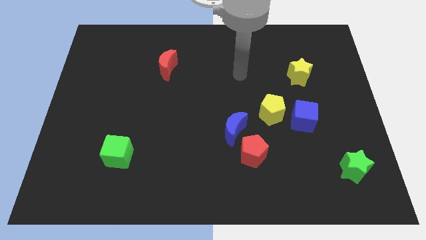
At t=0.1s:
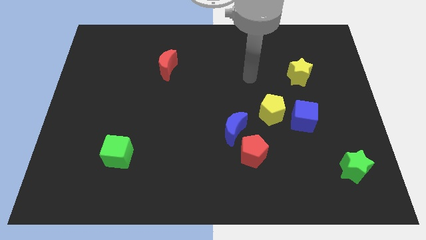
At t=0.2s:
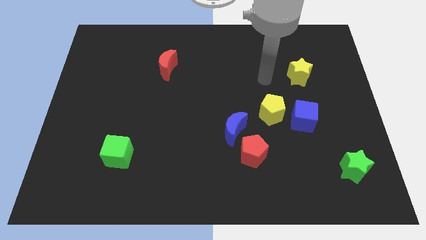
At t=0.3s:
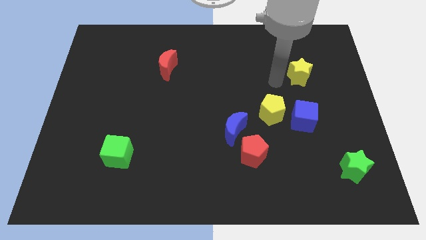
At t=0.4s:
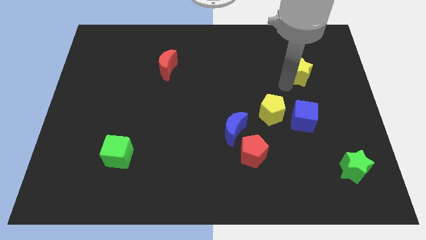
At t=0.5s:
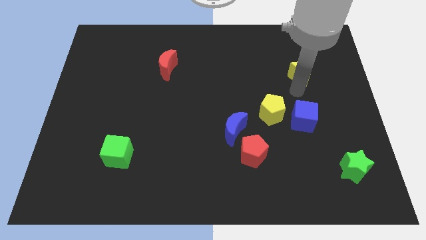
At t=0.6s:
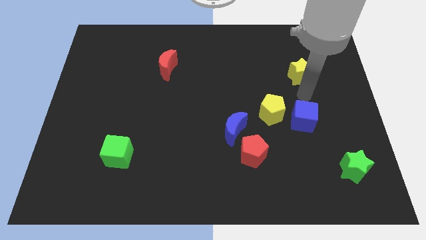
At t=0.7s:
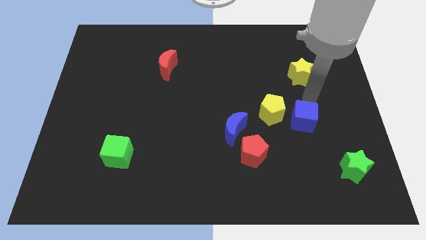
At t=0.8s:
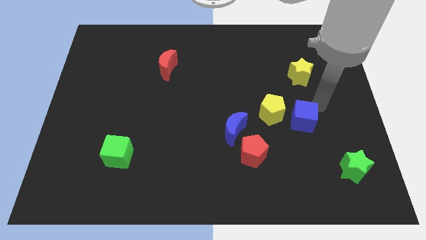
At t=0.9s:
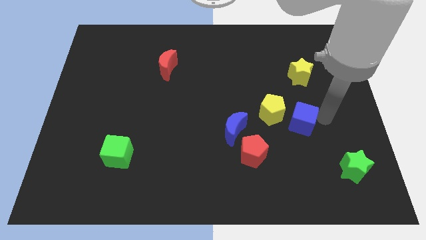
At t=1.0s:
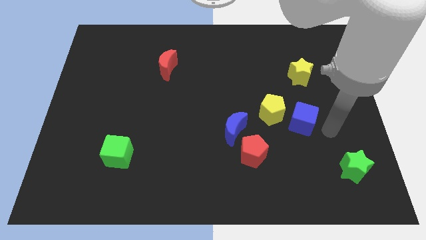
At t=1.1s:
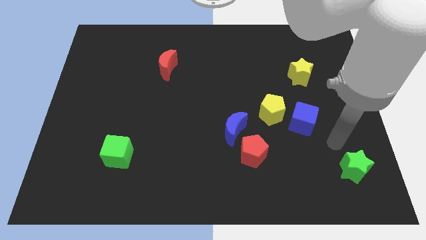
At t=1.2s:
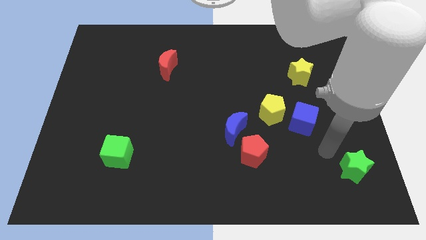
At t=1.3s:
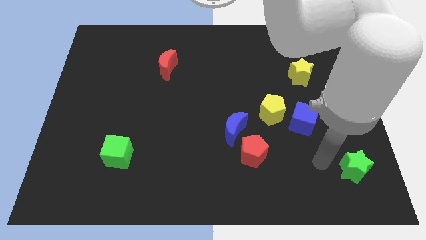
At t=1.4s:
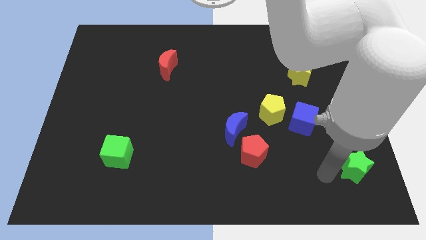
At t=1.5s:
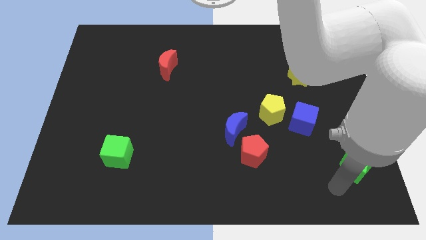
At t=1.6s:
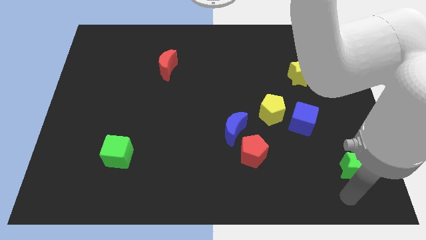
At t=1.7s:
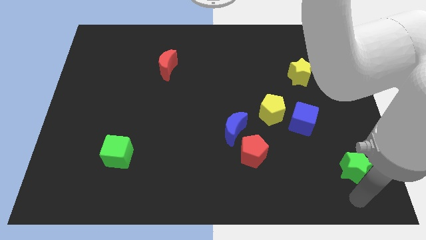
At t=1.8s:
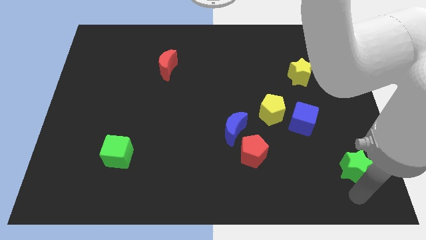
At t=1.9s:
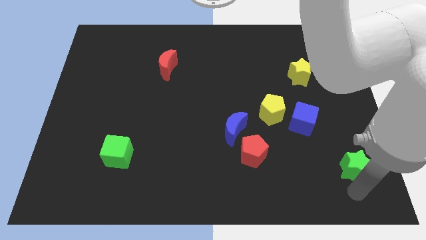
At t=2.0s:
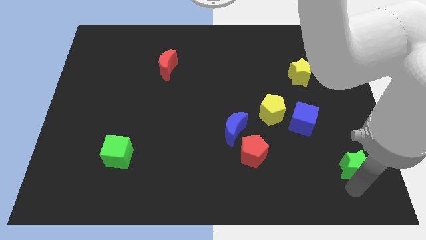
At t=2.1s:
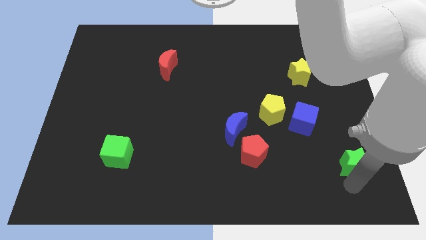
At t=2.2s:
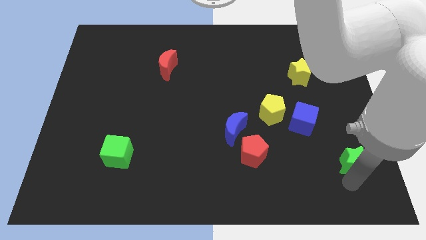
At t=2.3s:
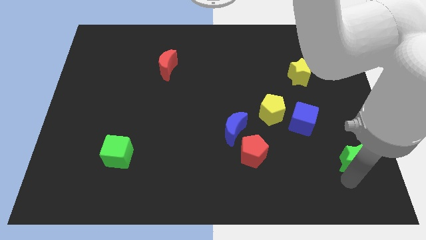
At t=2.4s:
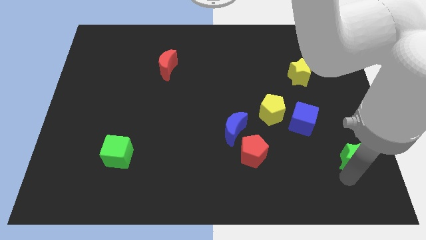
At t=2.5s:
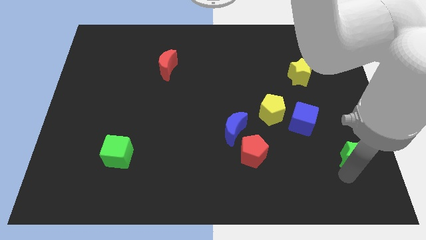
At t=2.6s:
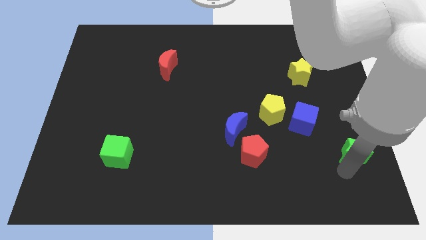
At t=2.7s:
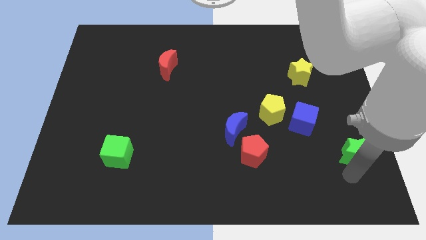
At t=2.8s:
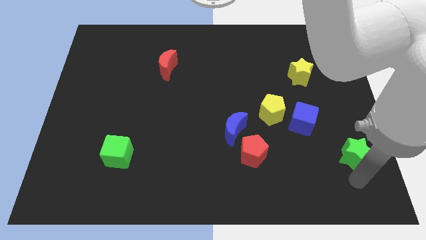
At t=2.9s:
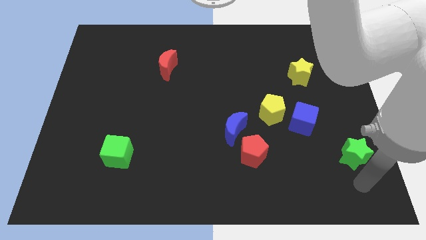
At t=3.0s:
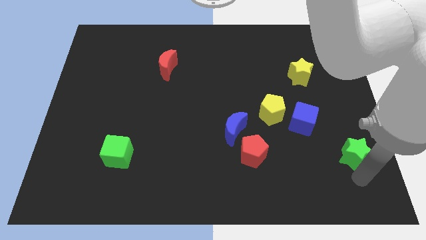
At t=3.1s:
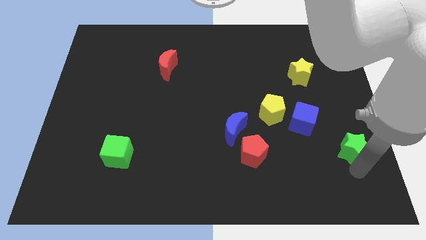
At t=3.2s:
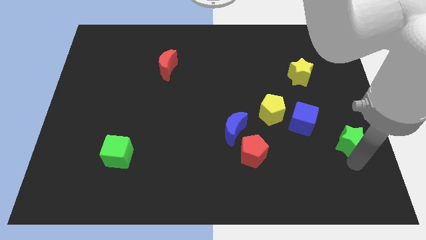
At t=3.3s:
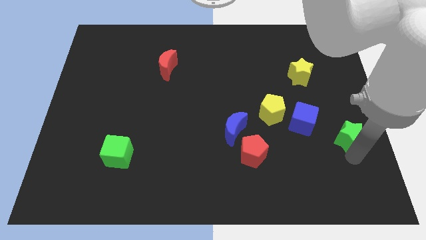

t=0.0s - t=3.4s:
move the green star somewhat up

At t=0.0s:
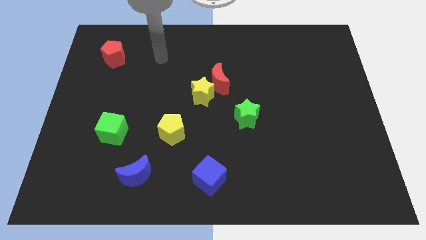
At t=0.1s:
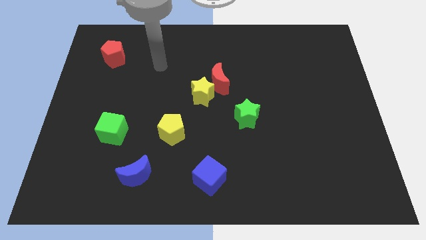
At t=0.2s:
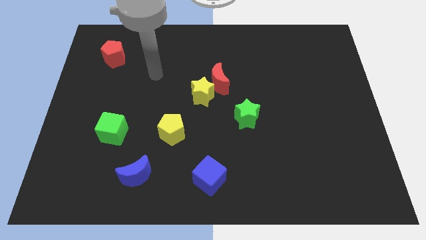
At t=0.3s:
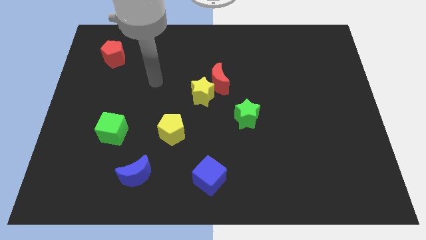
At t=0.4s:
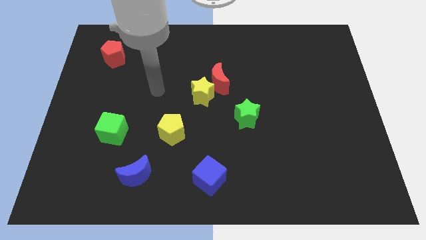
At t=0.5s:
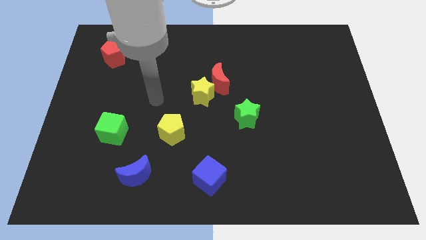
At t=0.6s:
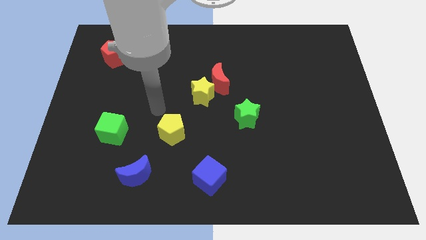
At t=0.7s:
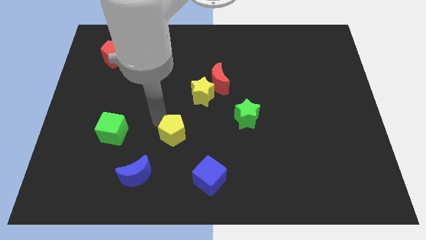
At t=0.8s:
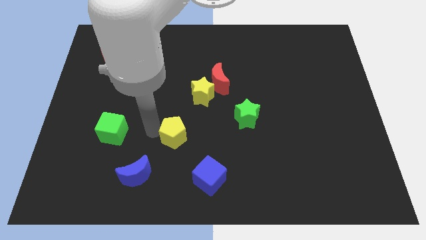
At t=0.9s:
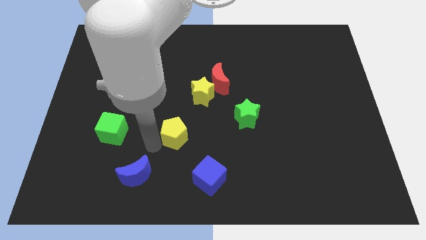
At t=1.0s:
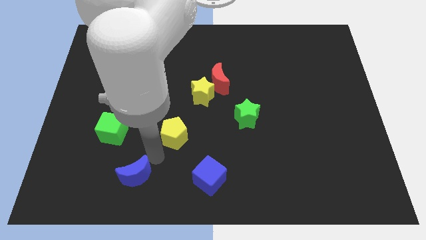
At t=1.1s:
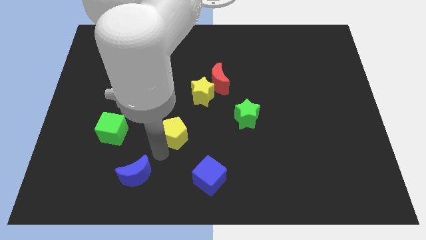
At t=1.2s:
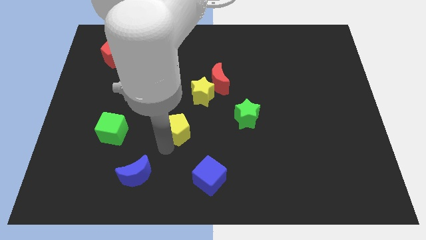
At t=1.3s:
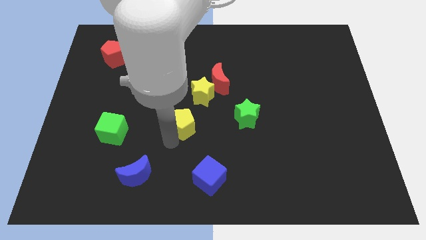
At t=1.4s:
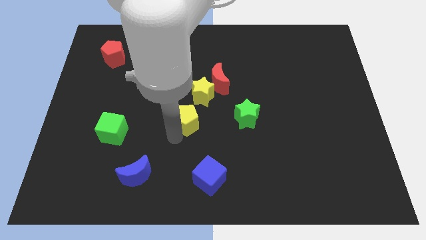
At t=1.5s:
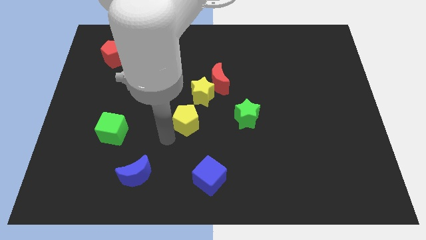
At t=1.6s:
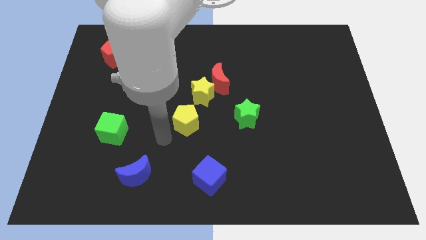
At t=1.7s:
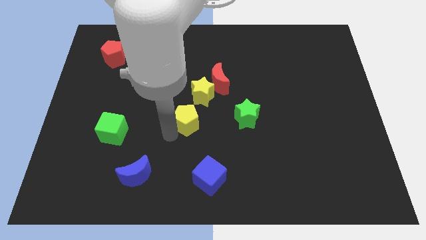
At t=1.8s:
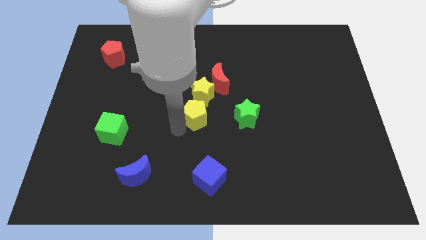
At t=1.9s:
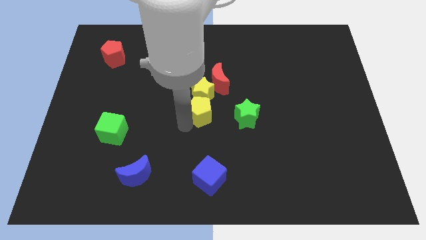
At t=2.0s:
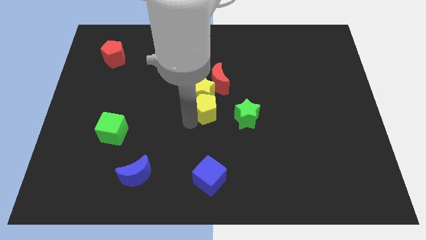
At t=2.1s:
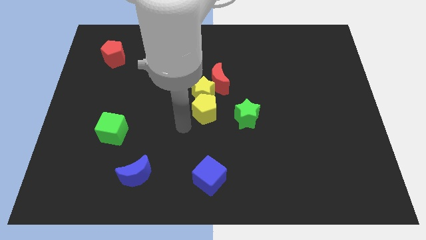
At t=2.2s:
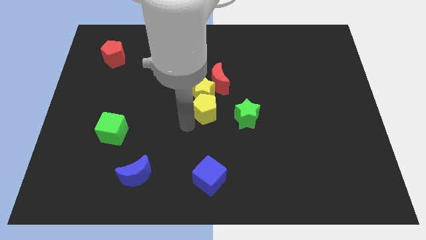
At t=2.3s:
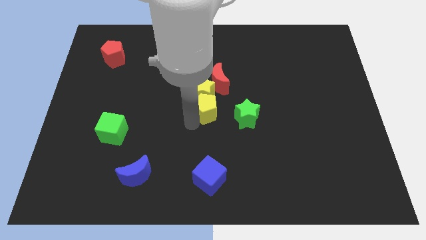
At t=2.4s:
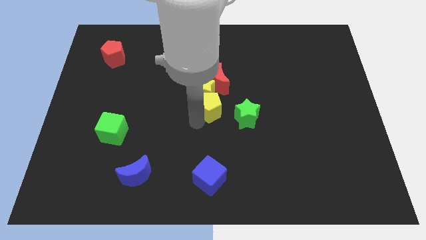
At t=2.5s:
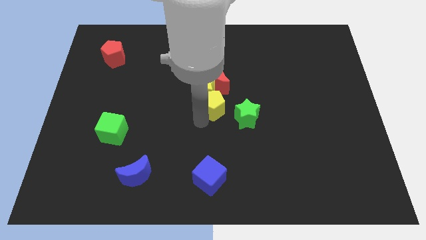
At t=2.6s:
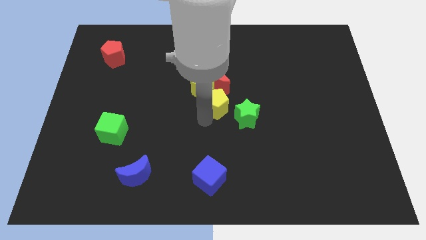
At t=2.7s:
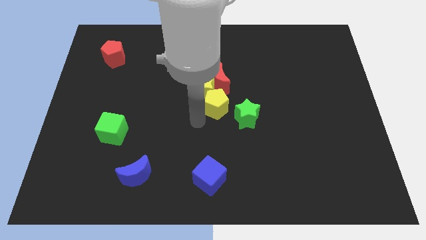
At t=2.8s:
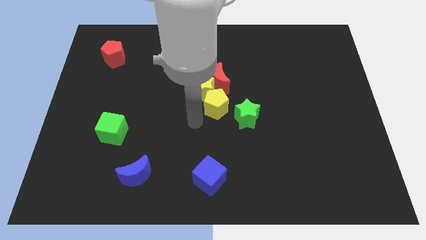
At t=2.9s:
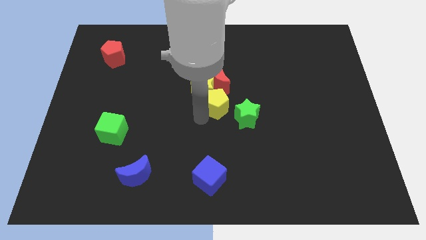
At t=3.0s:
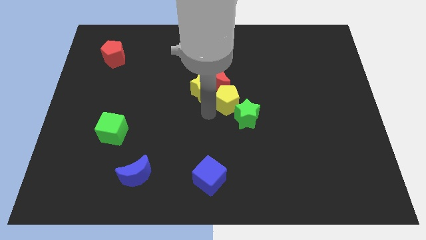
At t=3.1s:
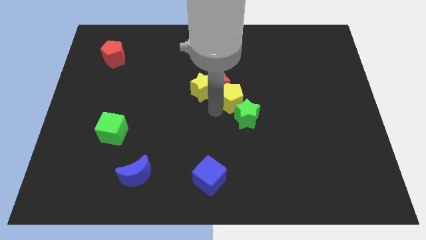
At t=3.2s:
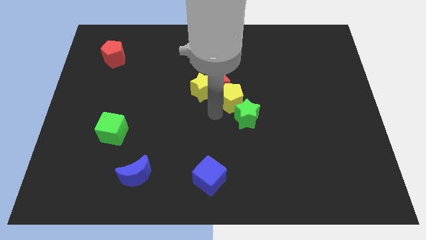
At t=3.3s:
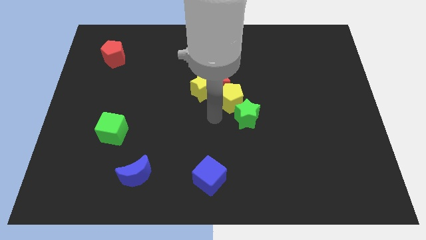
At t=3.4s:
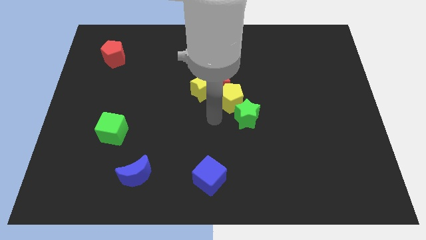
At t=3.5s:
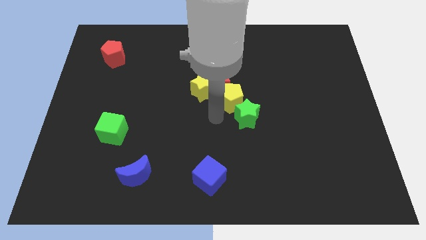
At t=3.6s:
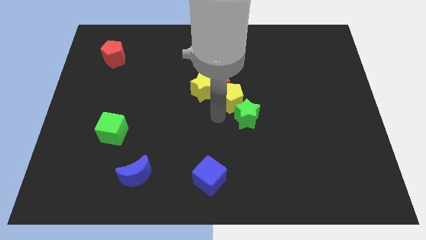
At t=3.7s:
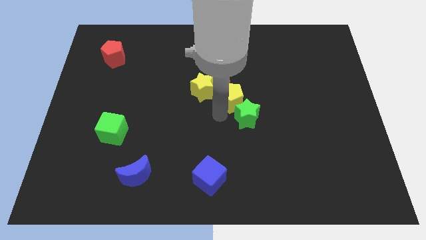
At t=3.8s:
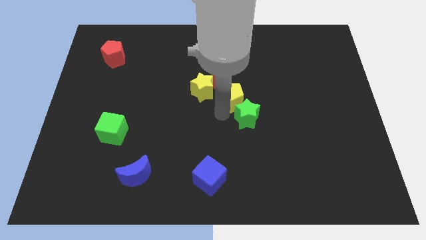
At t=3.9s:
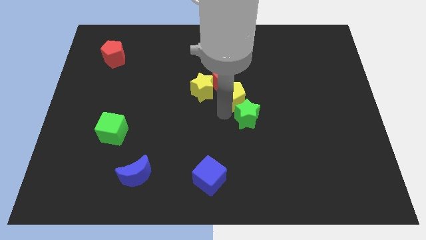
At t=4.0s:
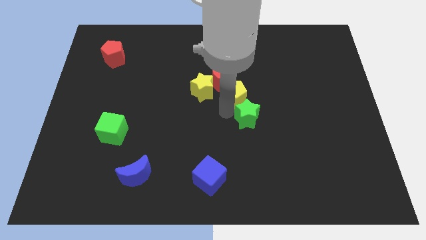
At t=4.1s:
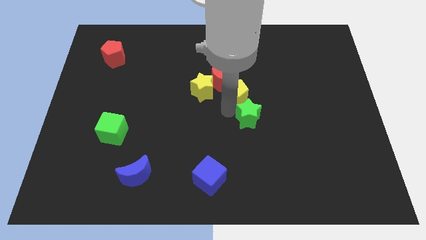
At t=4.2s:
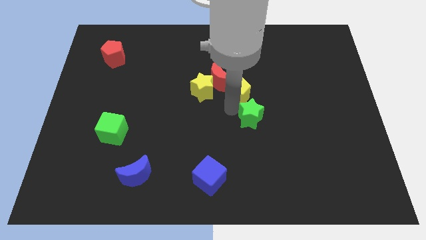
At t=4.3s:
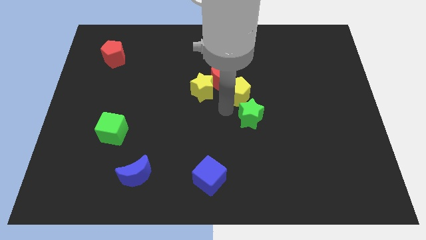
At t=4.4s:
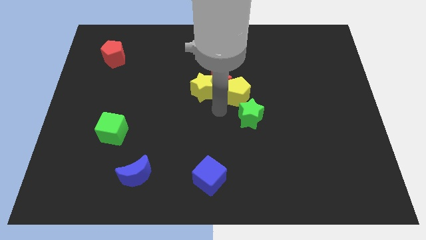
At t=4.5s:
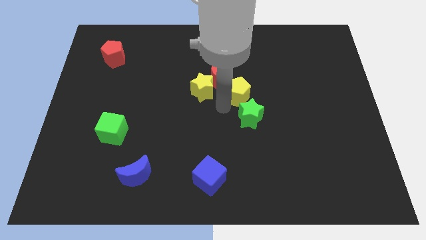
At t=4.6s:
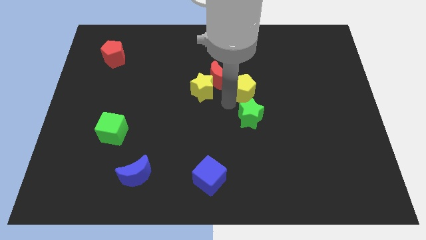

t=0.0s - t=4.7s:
slide the yellow pentagon upwards and to the right
